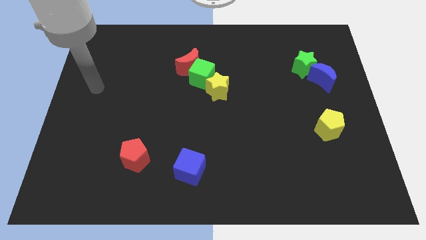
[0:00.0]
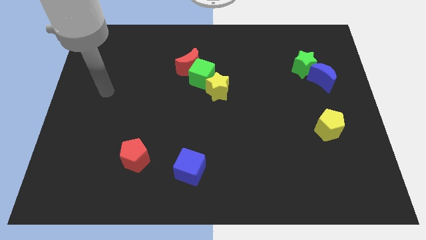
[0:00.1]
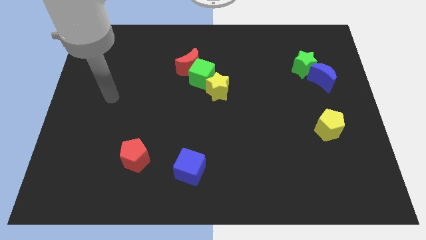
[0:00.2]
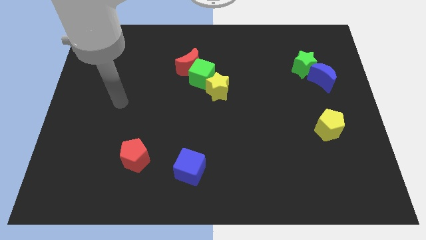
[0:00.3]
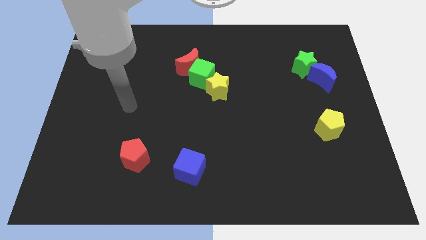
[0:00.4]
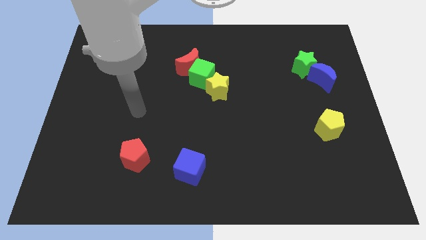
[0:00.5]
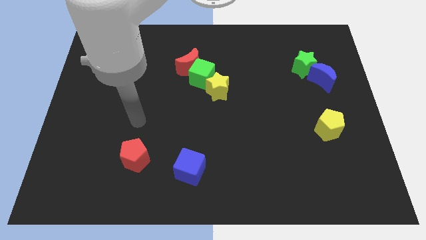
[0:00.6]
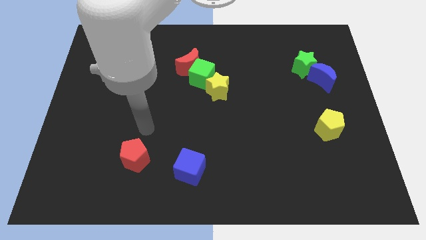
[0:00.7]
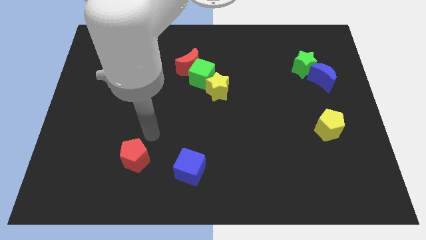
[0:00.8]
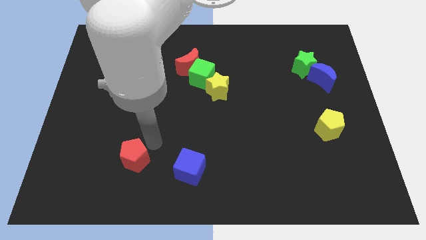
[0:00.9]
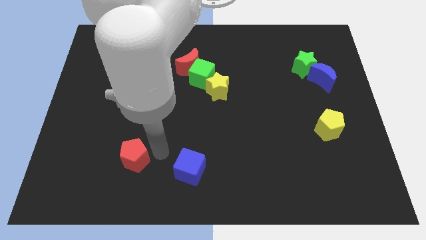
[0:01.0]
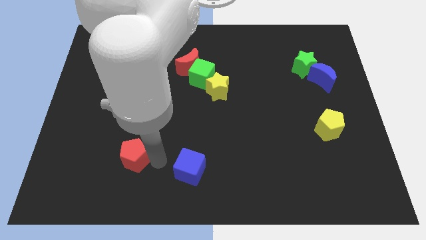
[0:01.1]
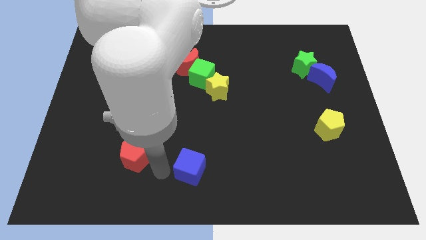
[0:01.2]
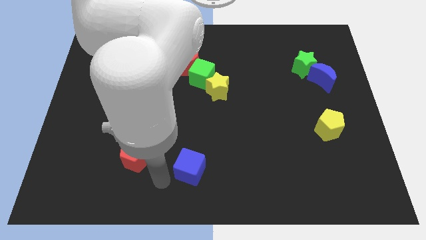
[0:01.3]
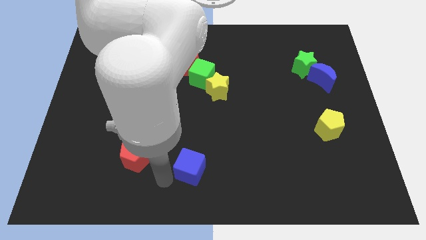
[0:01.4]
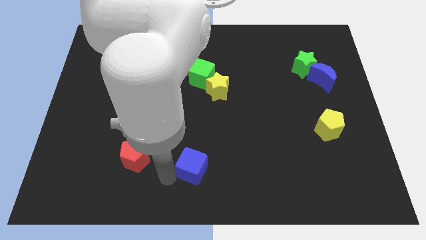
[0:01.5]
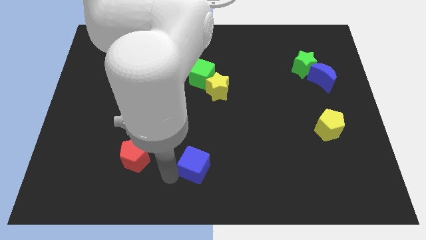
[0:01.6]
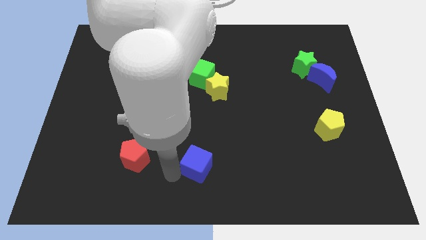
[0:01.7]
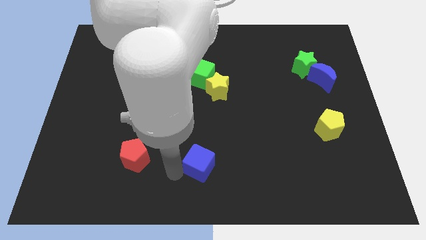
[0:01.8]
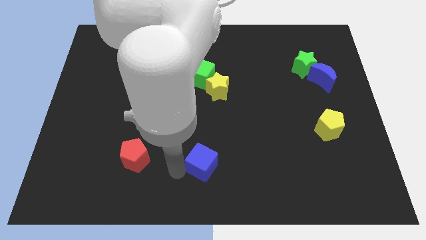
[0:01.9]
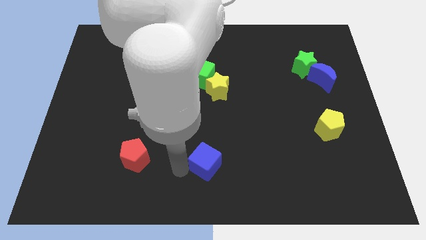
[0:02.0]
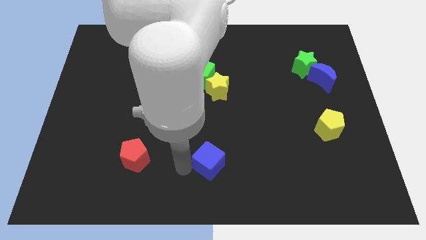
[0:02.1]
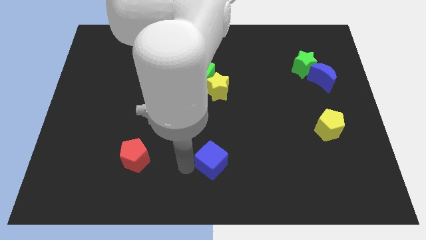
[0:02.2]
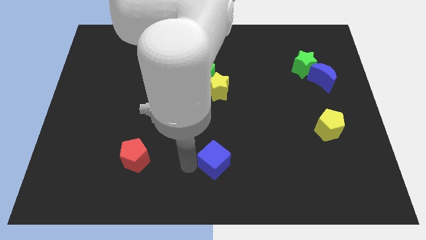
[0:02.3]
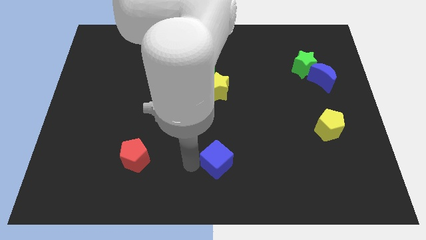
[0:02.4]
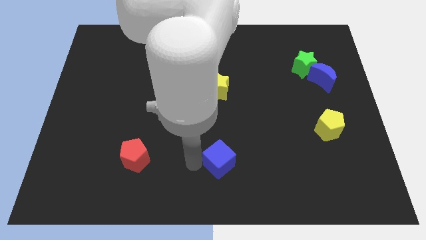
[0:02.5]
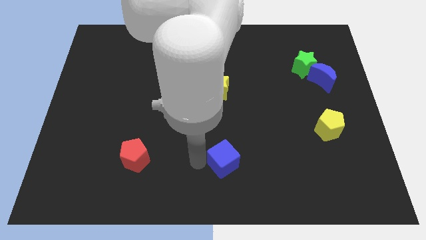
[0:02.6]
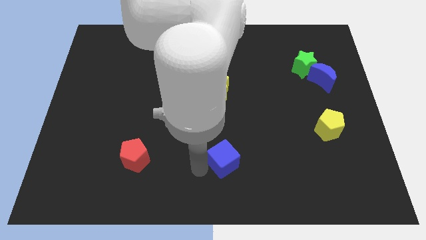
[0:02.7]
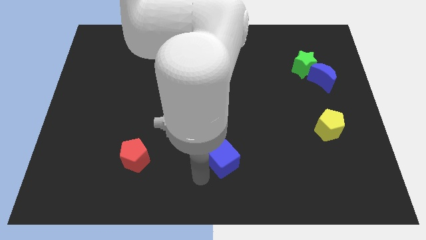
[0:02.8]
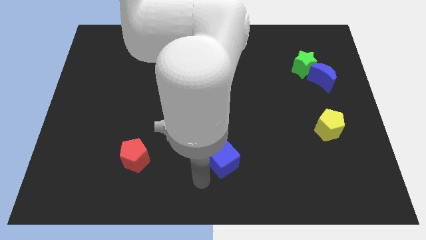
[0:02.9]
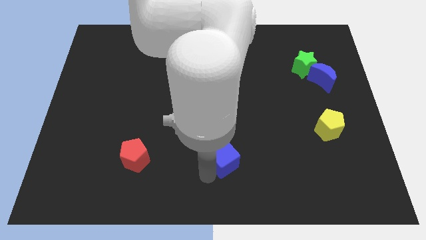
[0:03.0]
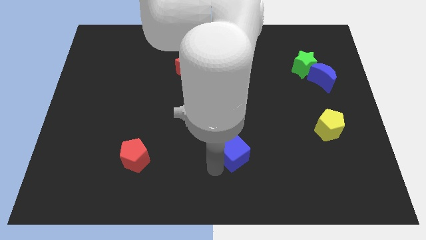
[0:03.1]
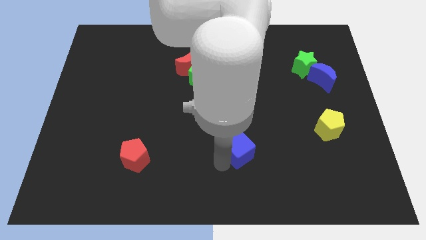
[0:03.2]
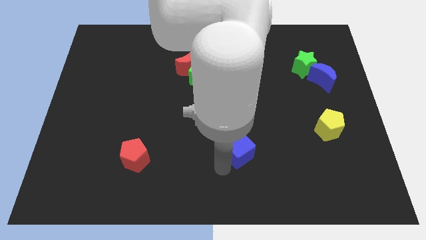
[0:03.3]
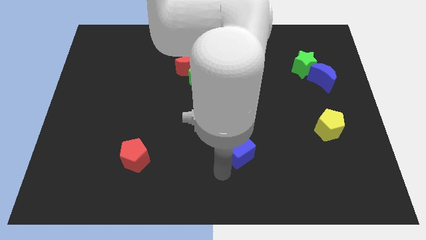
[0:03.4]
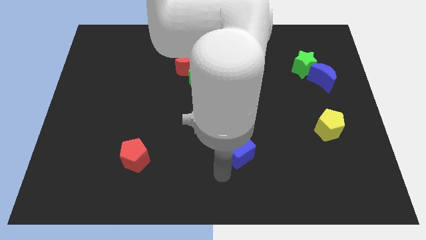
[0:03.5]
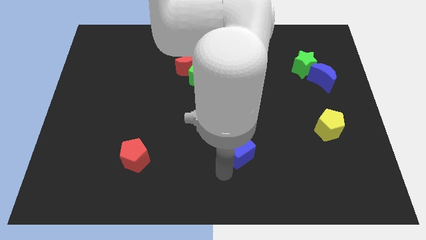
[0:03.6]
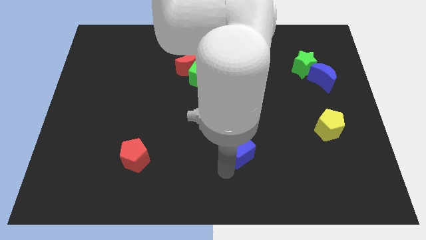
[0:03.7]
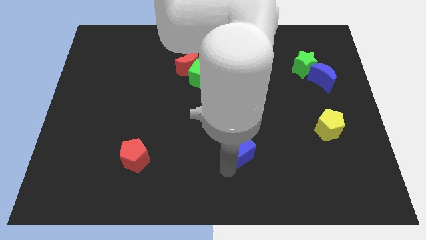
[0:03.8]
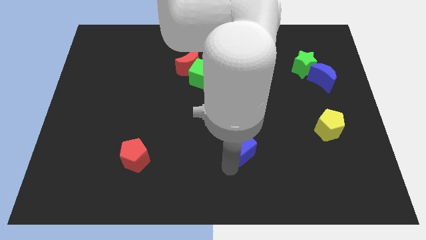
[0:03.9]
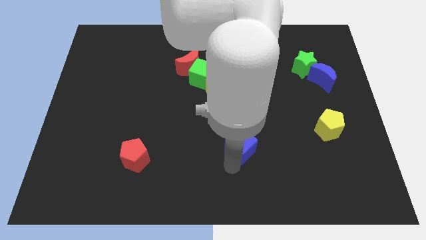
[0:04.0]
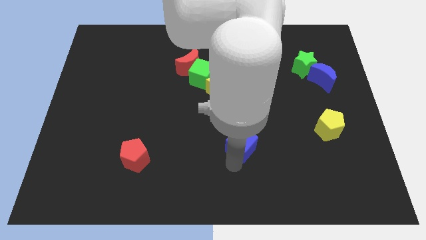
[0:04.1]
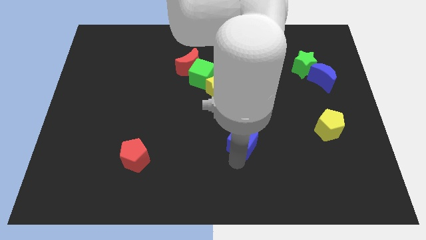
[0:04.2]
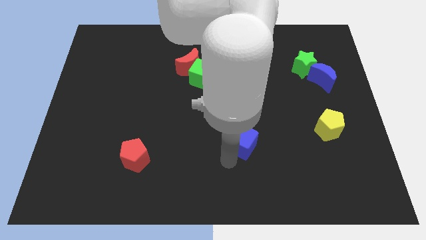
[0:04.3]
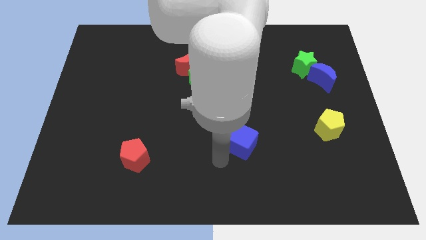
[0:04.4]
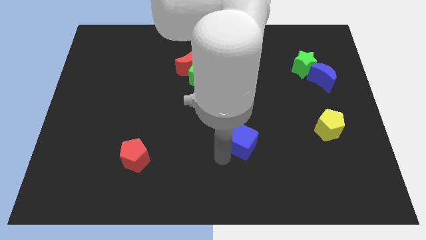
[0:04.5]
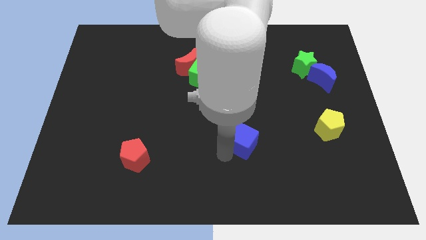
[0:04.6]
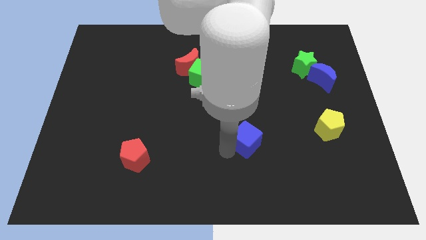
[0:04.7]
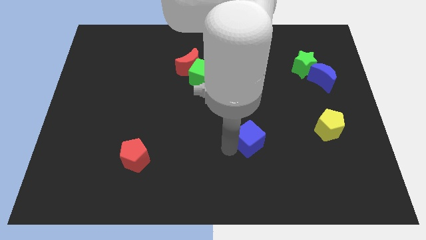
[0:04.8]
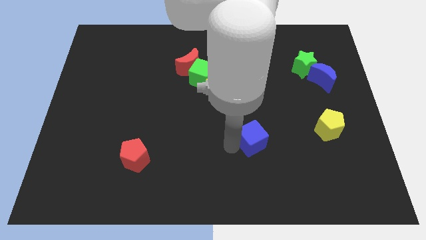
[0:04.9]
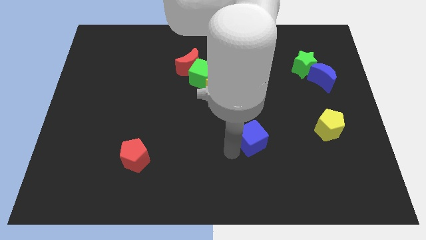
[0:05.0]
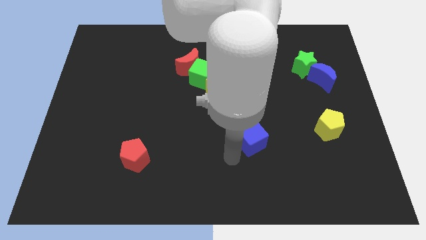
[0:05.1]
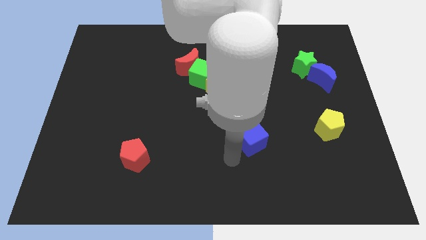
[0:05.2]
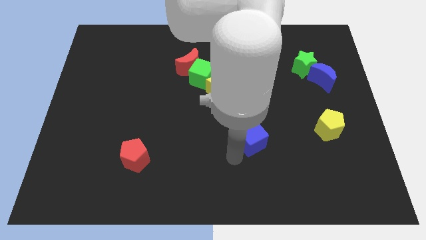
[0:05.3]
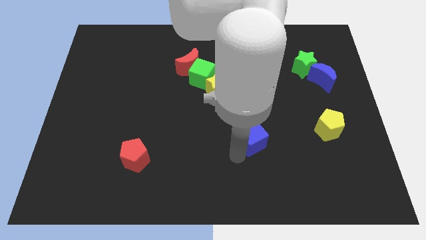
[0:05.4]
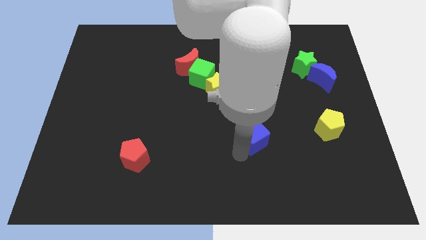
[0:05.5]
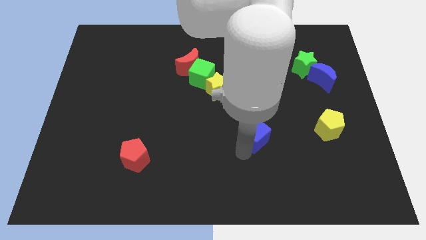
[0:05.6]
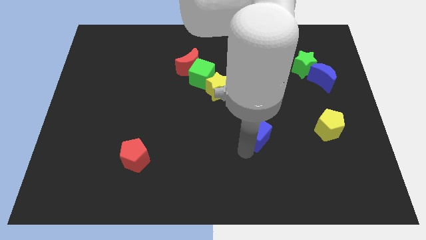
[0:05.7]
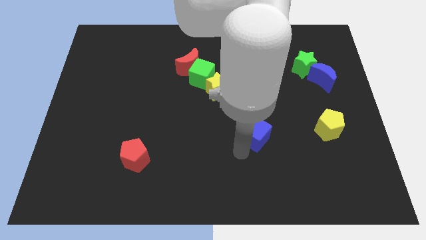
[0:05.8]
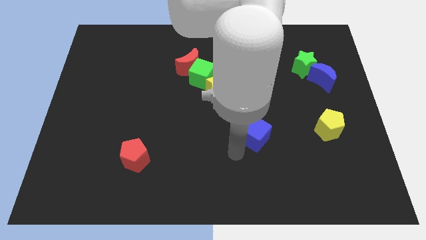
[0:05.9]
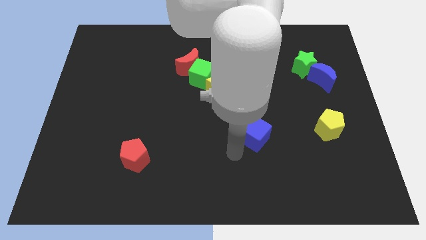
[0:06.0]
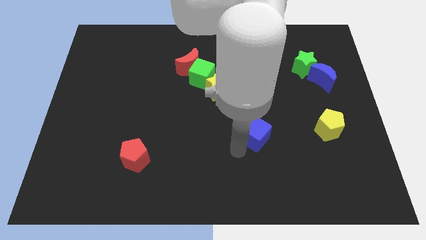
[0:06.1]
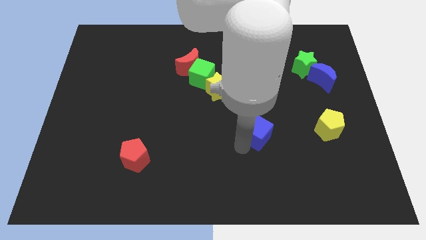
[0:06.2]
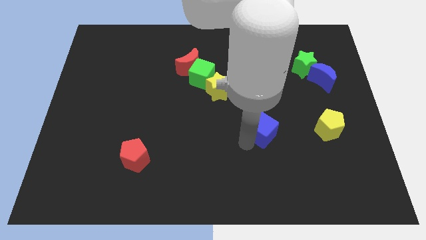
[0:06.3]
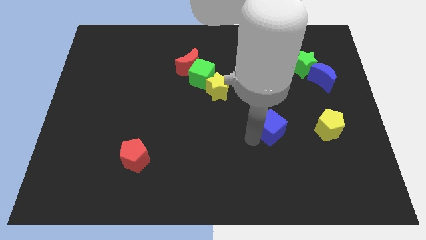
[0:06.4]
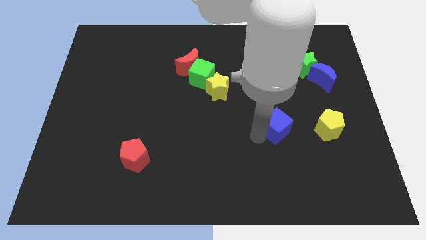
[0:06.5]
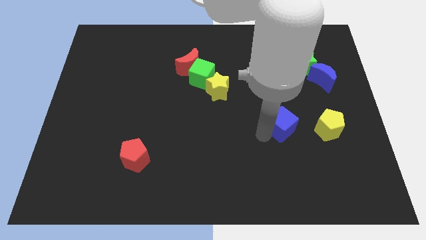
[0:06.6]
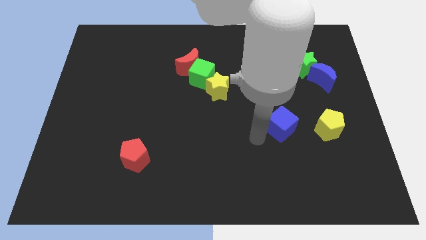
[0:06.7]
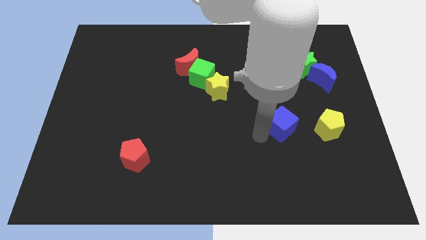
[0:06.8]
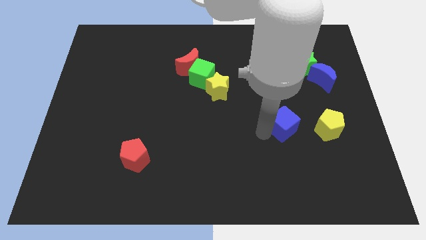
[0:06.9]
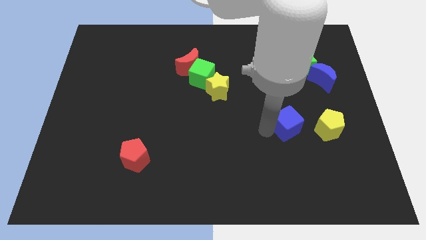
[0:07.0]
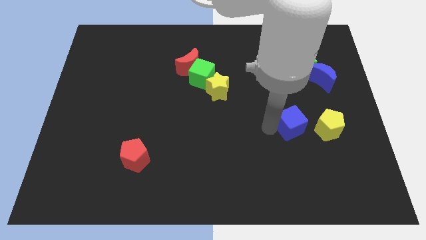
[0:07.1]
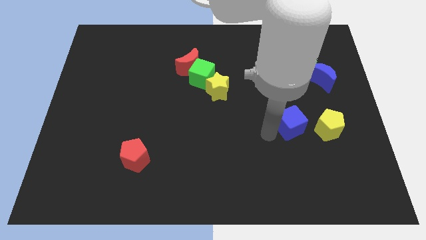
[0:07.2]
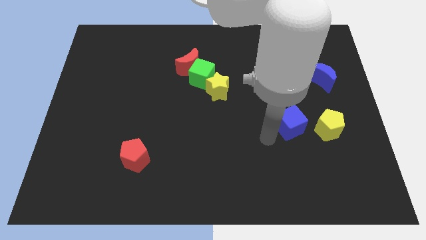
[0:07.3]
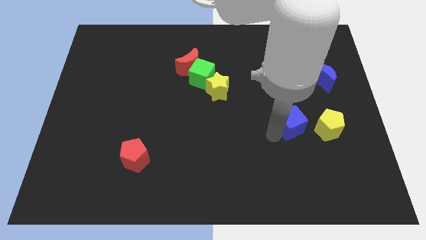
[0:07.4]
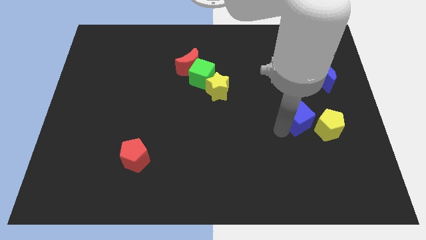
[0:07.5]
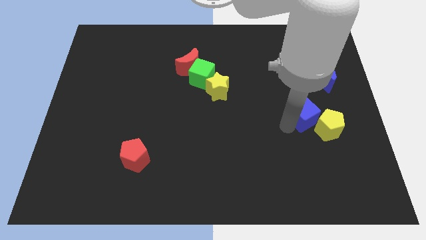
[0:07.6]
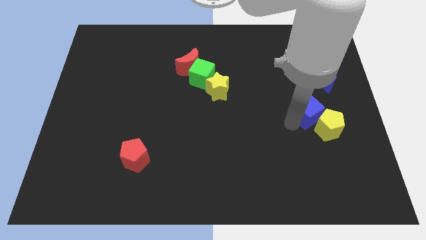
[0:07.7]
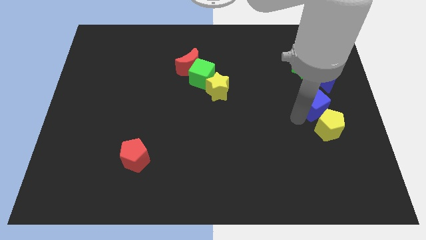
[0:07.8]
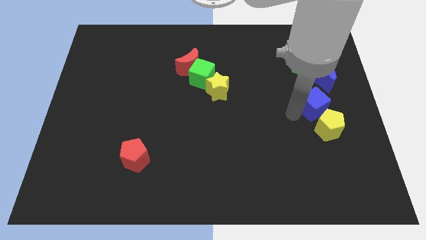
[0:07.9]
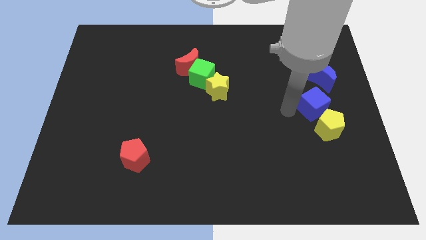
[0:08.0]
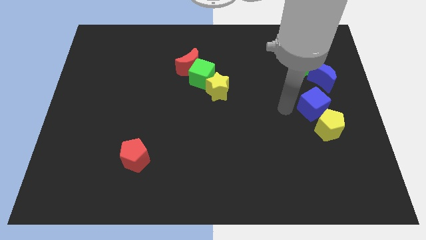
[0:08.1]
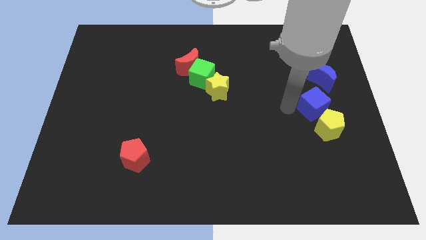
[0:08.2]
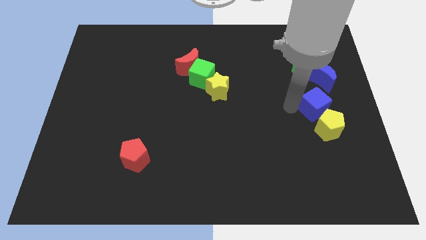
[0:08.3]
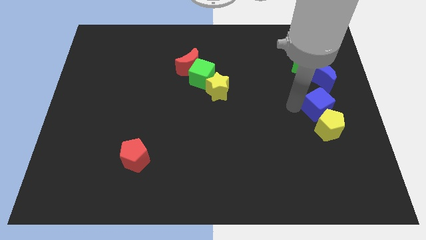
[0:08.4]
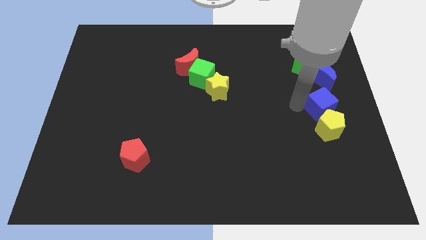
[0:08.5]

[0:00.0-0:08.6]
slide the blue cube to the right side
